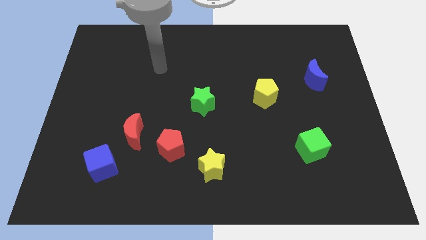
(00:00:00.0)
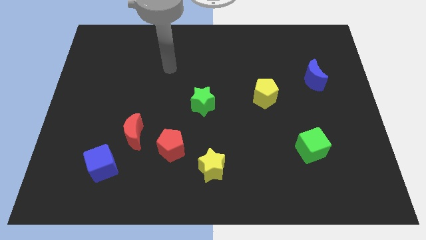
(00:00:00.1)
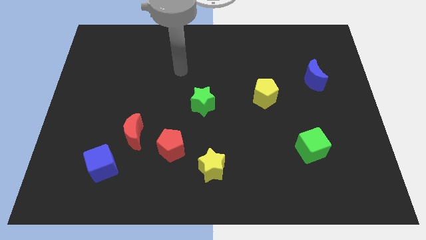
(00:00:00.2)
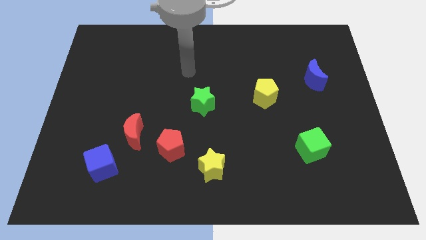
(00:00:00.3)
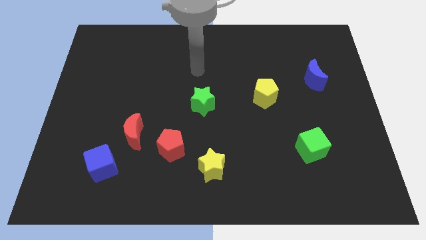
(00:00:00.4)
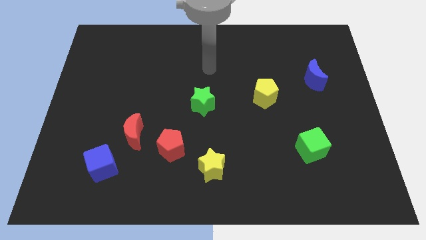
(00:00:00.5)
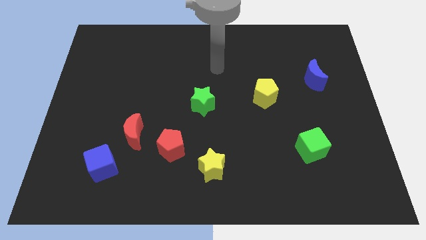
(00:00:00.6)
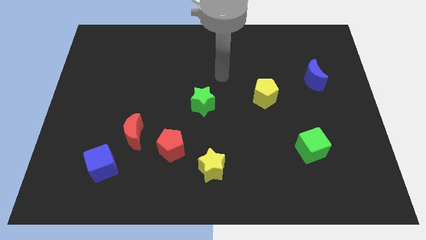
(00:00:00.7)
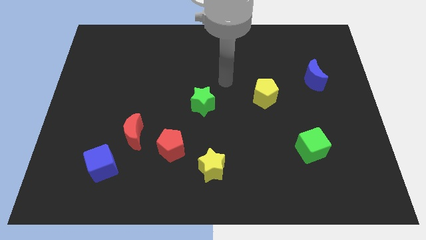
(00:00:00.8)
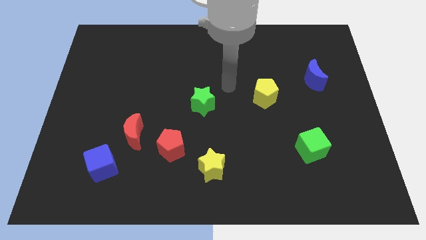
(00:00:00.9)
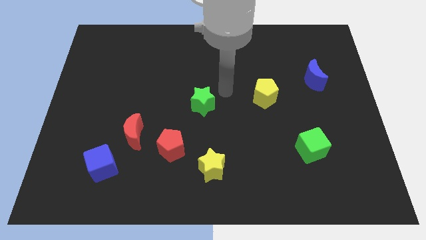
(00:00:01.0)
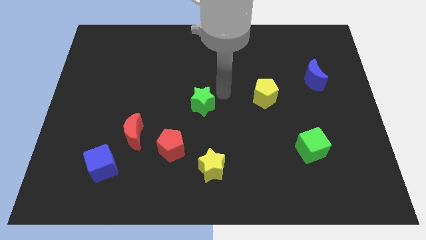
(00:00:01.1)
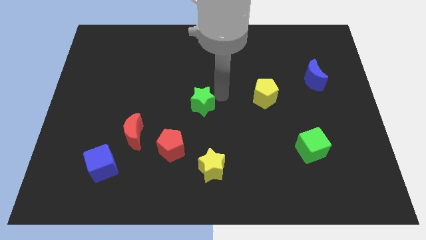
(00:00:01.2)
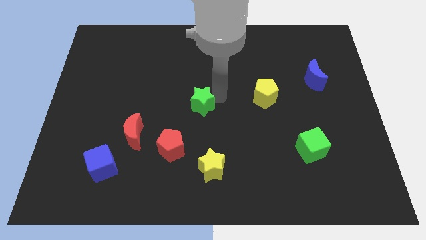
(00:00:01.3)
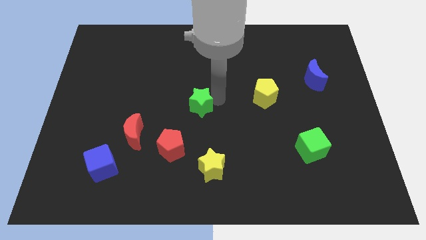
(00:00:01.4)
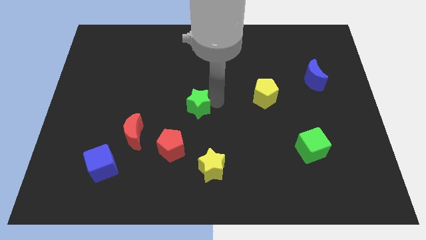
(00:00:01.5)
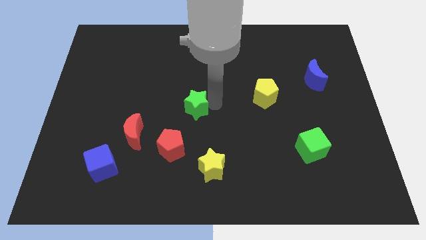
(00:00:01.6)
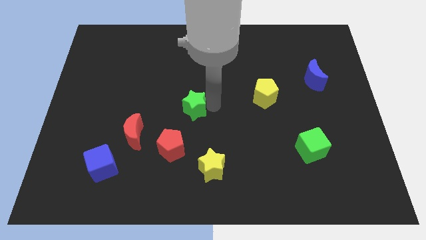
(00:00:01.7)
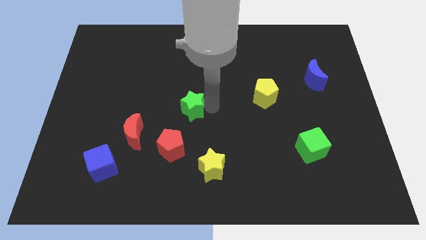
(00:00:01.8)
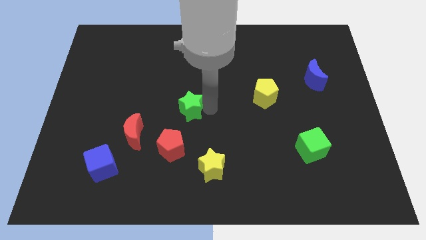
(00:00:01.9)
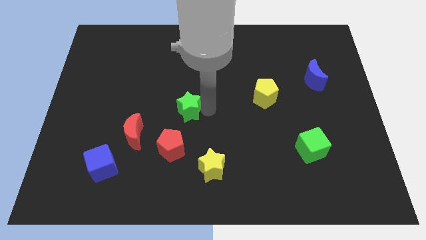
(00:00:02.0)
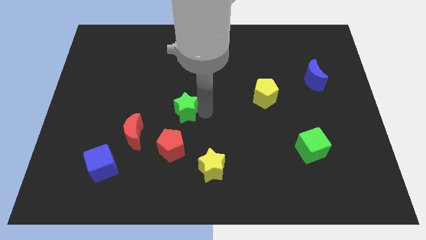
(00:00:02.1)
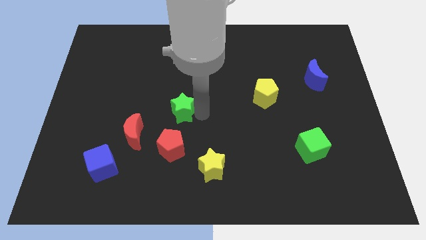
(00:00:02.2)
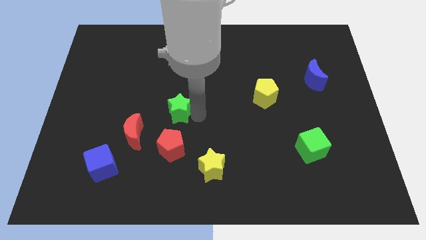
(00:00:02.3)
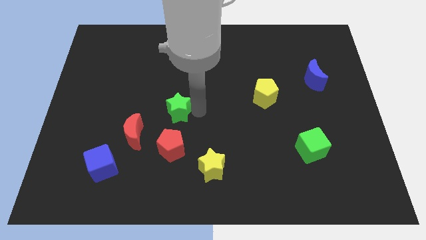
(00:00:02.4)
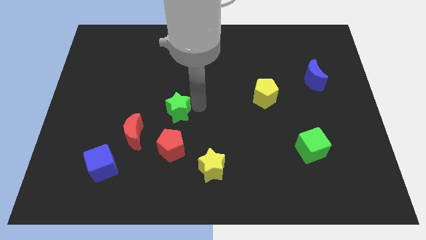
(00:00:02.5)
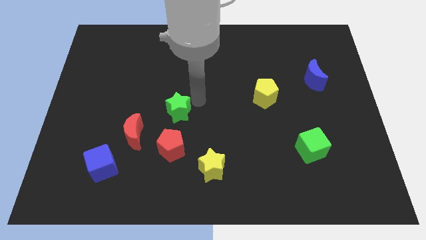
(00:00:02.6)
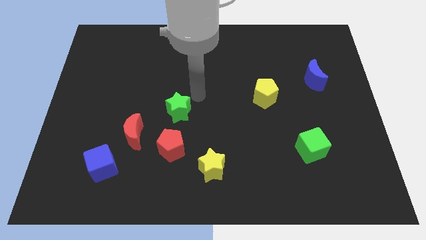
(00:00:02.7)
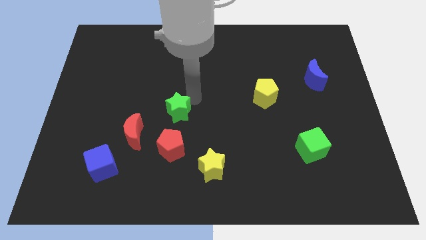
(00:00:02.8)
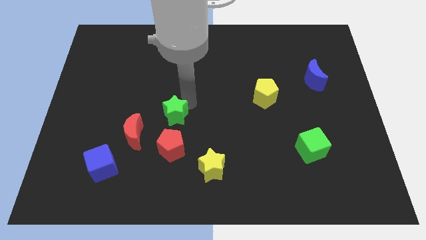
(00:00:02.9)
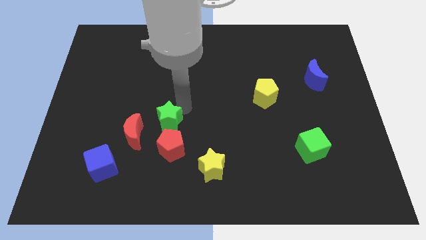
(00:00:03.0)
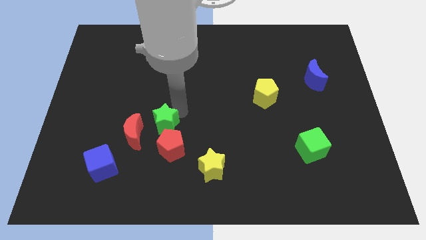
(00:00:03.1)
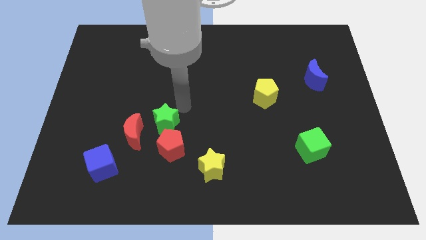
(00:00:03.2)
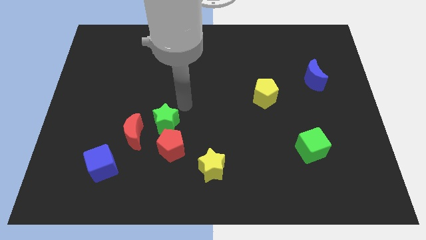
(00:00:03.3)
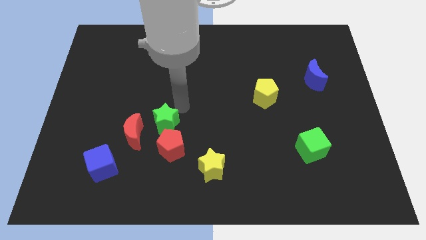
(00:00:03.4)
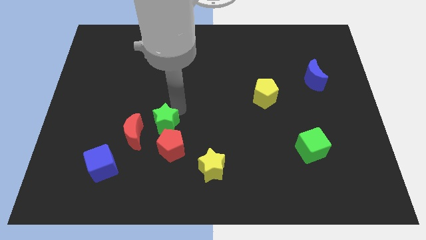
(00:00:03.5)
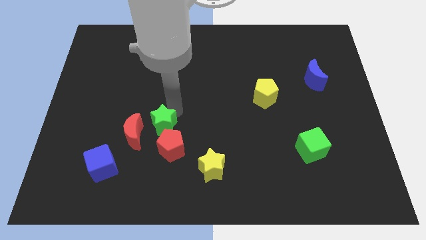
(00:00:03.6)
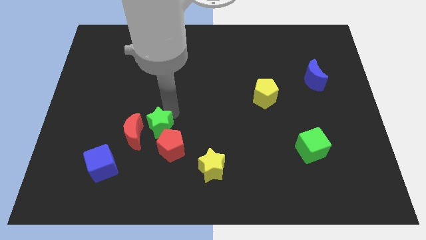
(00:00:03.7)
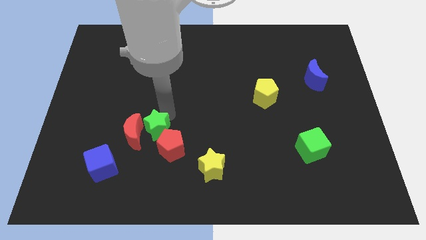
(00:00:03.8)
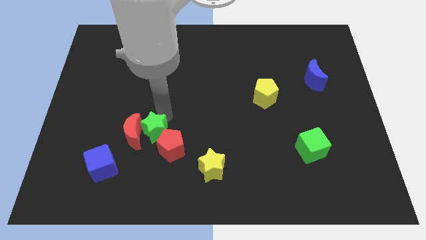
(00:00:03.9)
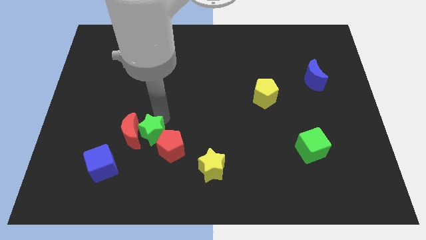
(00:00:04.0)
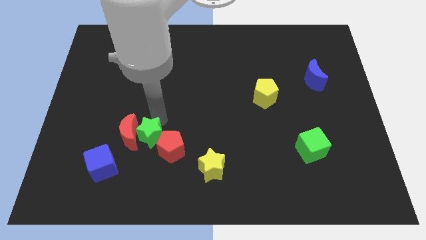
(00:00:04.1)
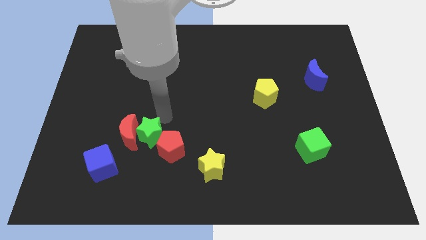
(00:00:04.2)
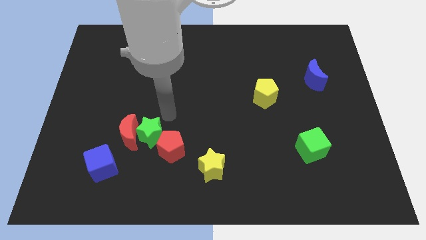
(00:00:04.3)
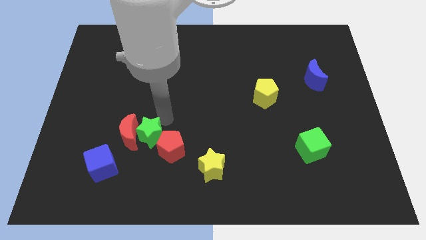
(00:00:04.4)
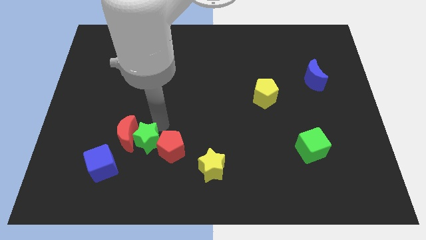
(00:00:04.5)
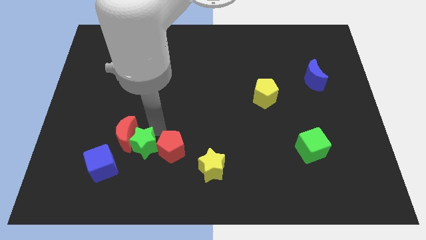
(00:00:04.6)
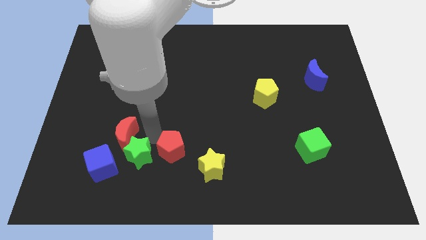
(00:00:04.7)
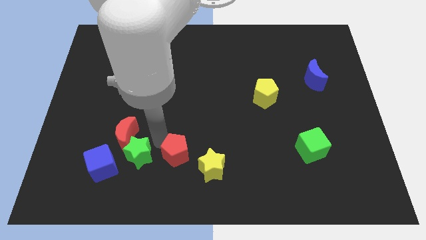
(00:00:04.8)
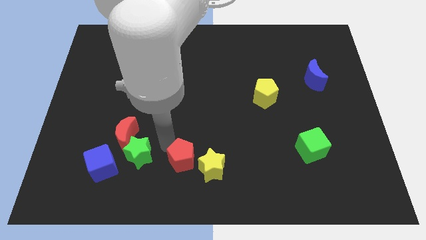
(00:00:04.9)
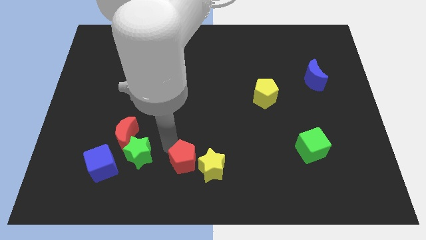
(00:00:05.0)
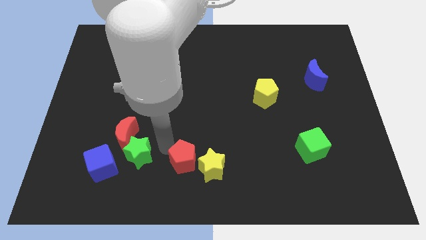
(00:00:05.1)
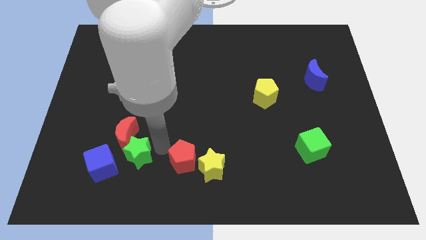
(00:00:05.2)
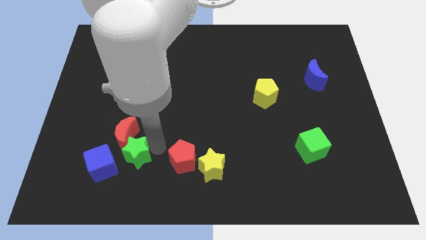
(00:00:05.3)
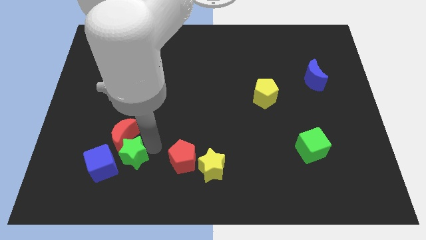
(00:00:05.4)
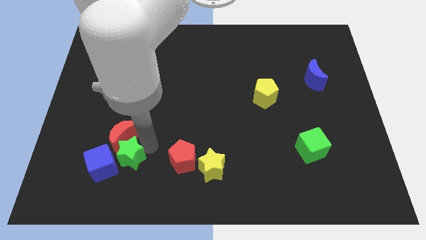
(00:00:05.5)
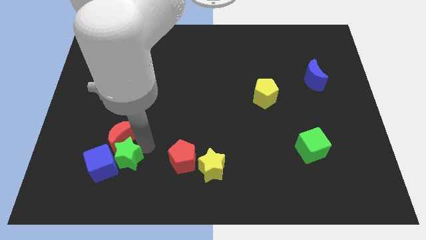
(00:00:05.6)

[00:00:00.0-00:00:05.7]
move the green star next to the blue cube

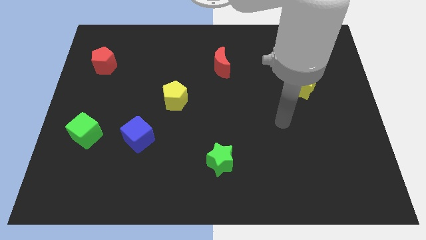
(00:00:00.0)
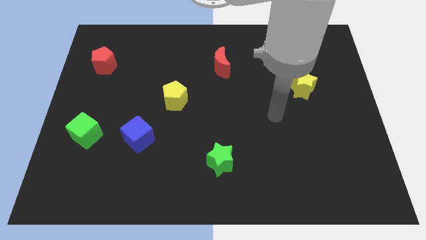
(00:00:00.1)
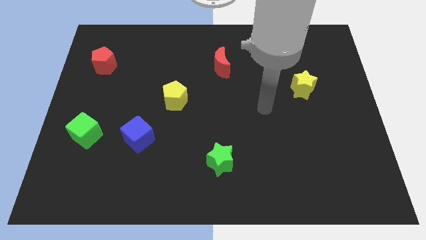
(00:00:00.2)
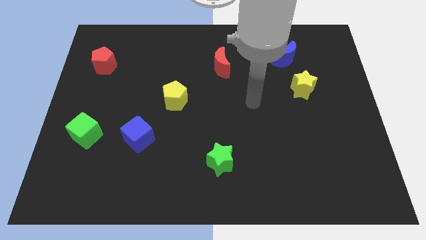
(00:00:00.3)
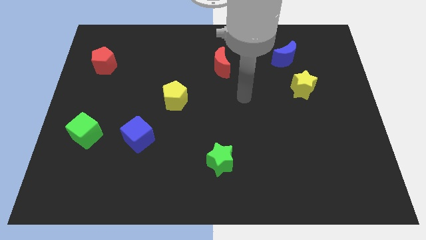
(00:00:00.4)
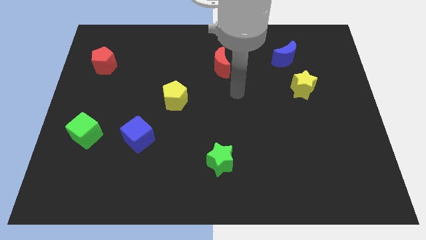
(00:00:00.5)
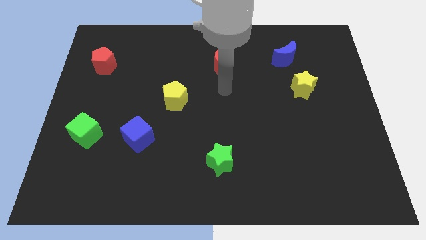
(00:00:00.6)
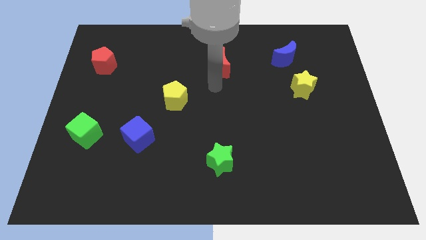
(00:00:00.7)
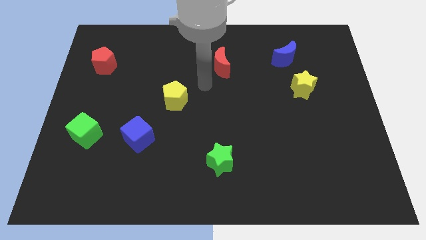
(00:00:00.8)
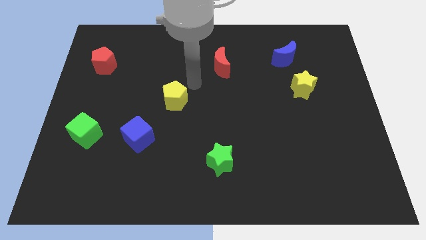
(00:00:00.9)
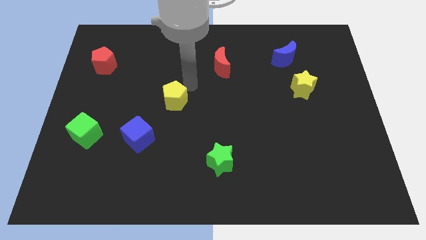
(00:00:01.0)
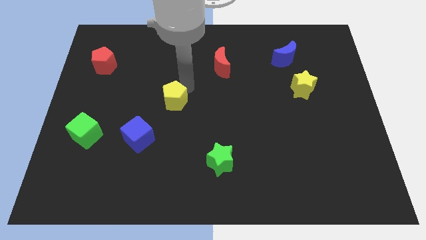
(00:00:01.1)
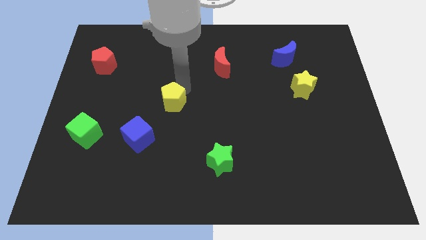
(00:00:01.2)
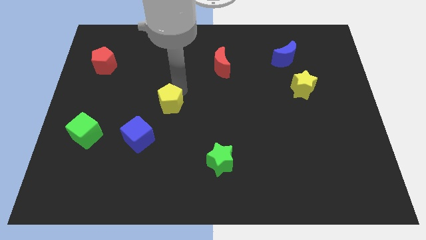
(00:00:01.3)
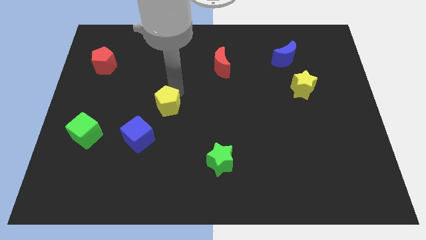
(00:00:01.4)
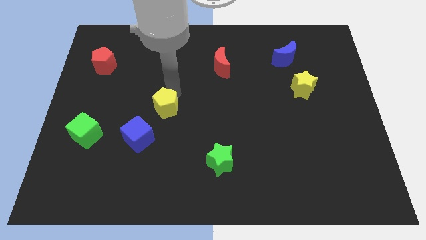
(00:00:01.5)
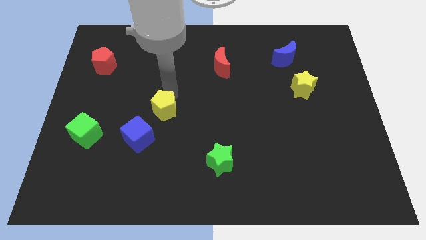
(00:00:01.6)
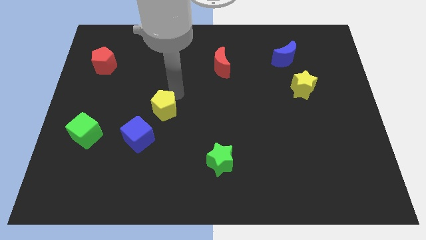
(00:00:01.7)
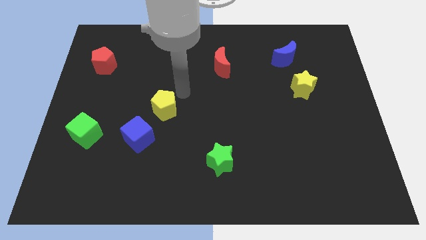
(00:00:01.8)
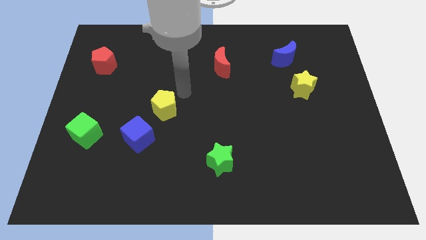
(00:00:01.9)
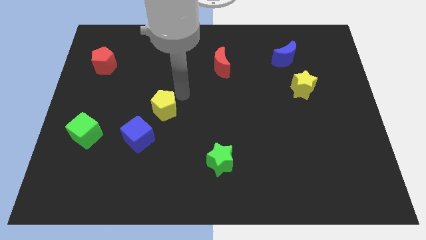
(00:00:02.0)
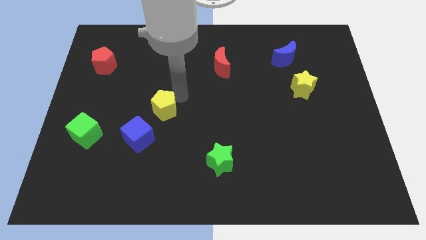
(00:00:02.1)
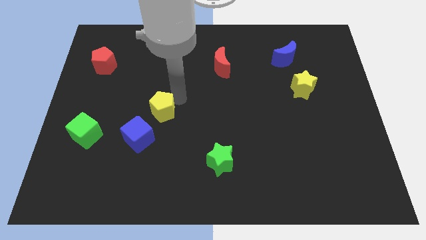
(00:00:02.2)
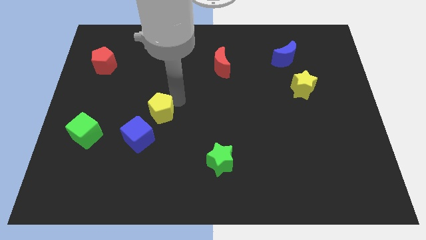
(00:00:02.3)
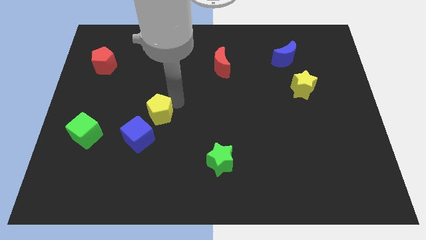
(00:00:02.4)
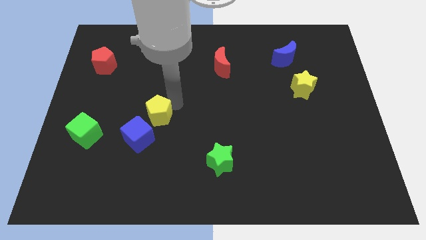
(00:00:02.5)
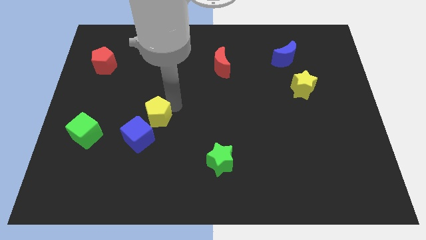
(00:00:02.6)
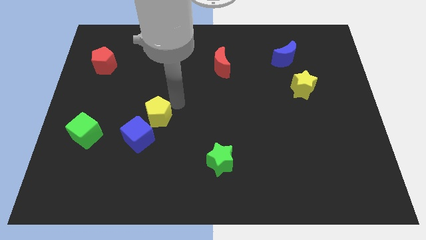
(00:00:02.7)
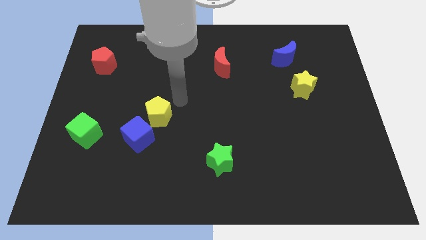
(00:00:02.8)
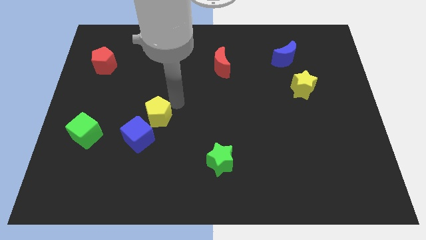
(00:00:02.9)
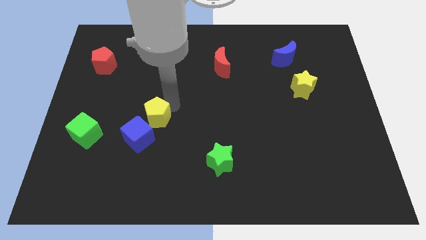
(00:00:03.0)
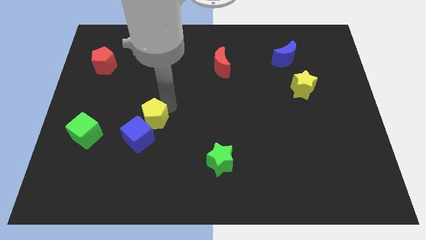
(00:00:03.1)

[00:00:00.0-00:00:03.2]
push the yellow pentagon close to the blue cube
